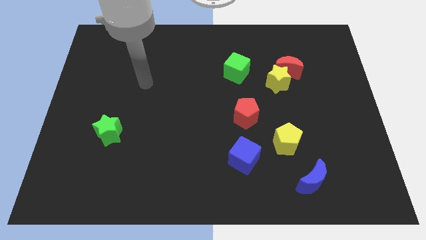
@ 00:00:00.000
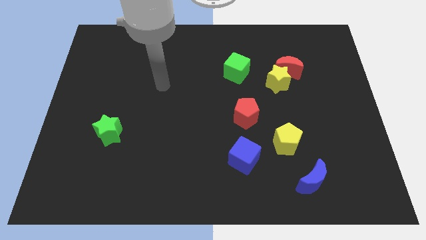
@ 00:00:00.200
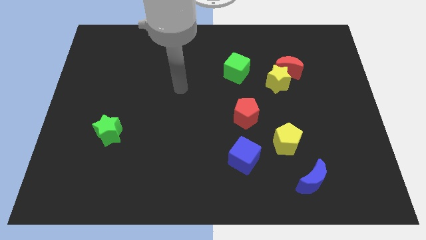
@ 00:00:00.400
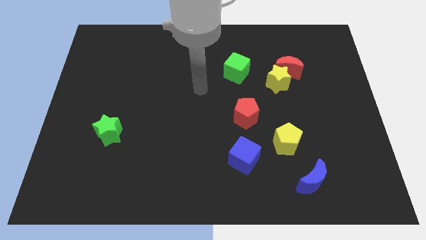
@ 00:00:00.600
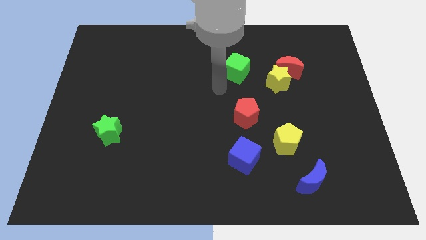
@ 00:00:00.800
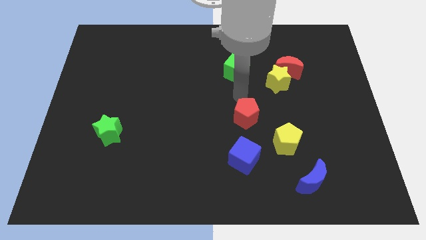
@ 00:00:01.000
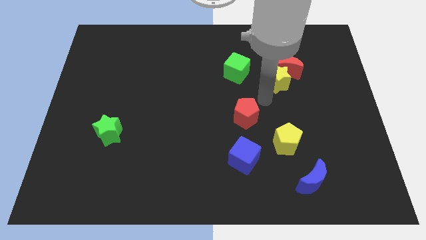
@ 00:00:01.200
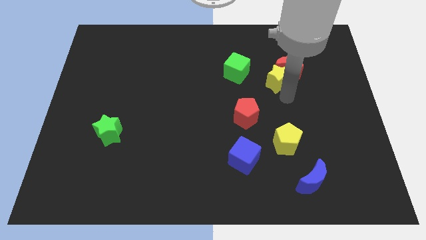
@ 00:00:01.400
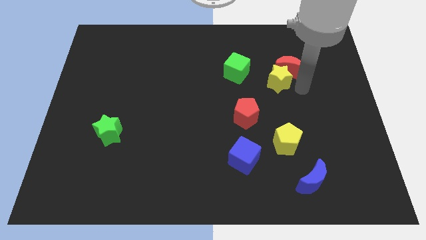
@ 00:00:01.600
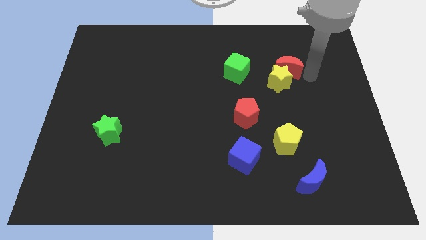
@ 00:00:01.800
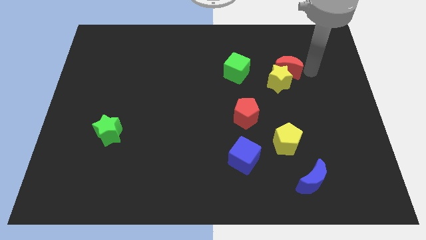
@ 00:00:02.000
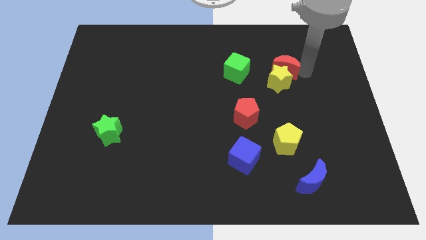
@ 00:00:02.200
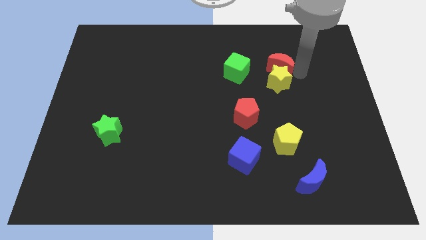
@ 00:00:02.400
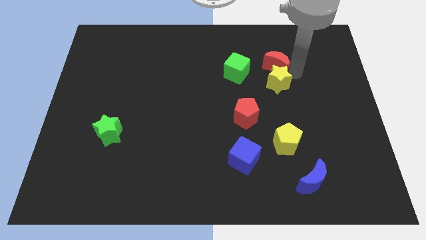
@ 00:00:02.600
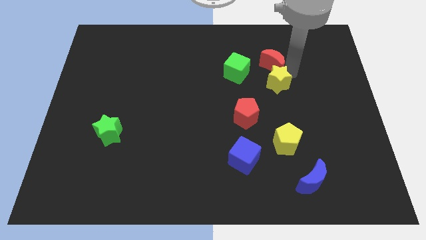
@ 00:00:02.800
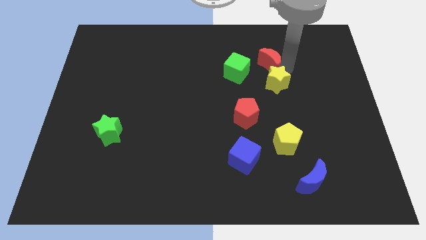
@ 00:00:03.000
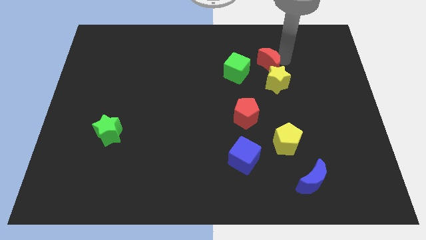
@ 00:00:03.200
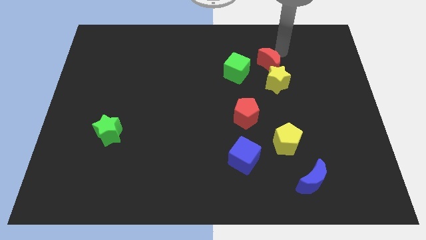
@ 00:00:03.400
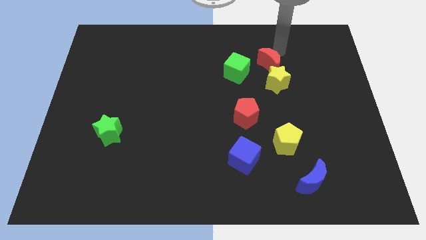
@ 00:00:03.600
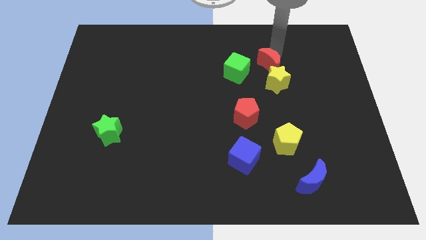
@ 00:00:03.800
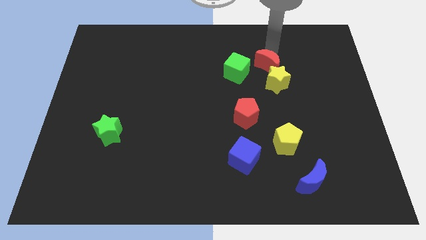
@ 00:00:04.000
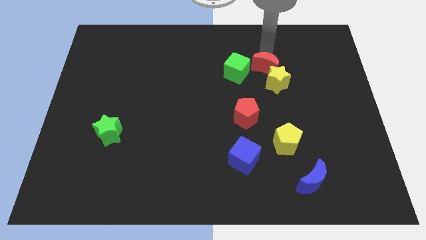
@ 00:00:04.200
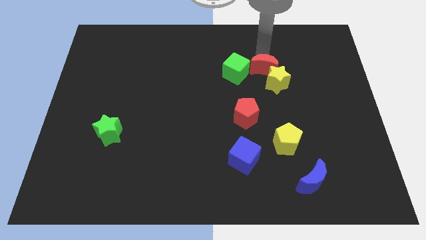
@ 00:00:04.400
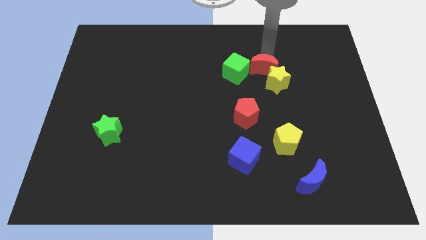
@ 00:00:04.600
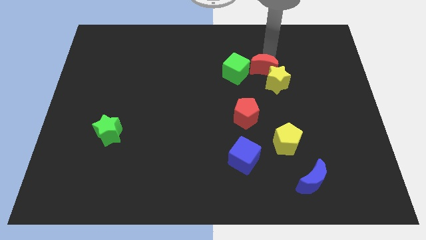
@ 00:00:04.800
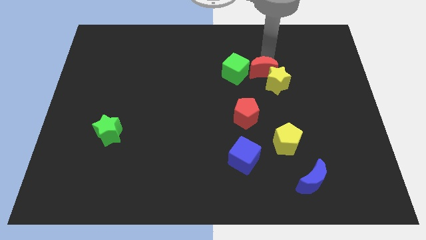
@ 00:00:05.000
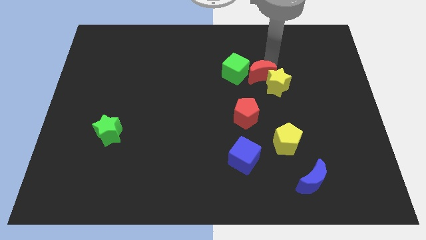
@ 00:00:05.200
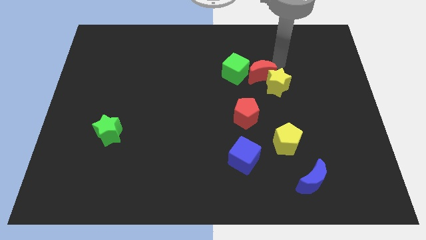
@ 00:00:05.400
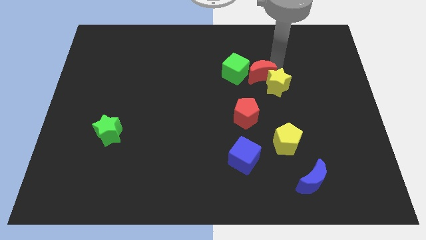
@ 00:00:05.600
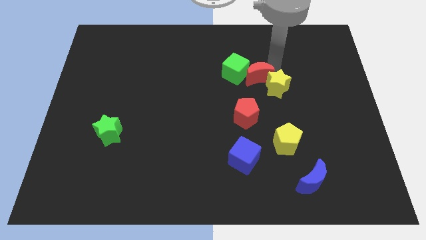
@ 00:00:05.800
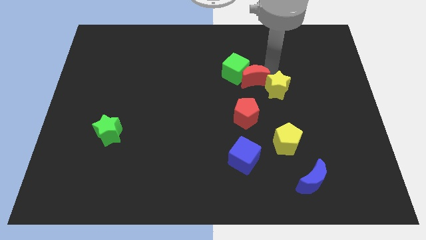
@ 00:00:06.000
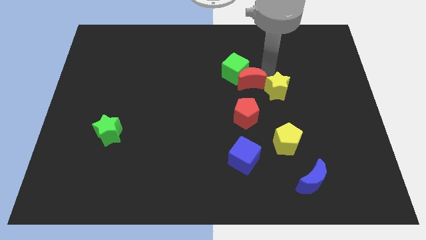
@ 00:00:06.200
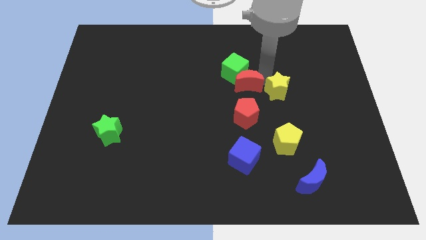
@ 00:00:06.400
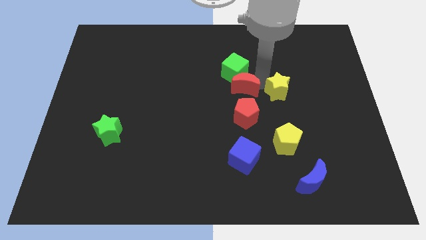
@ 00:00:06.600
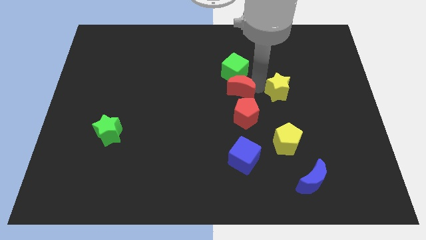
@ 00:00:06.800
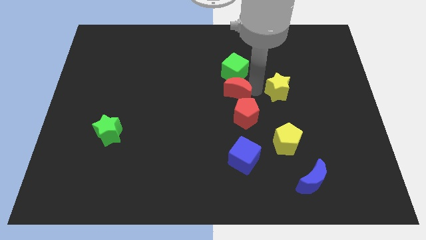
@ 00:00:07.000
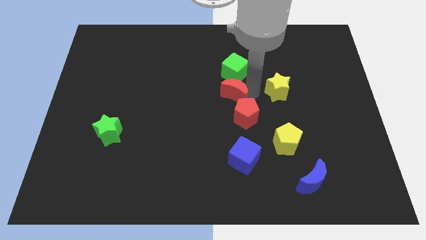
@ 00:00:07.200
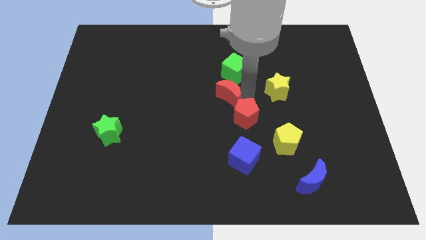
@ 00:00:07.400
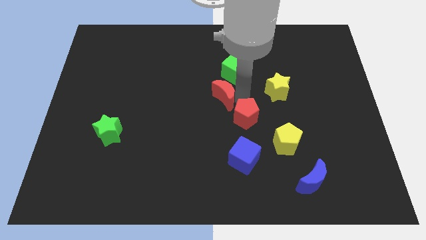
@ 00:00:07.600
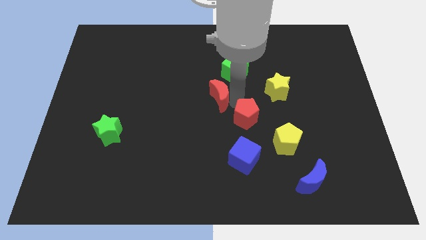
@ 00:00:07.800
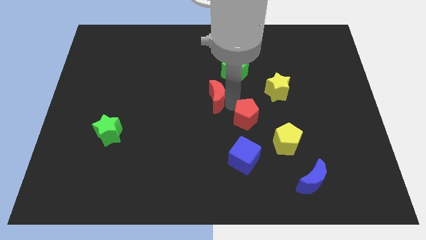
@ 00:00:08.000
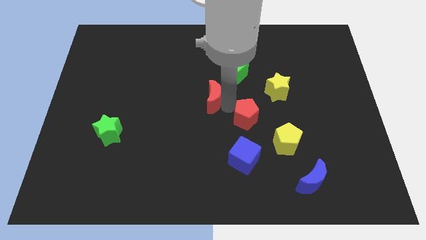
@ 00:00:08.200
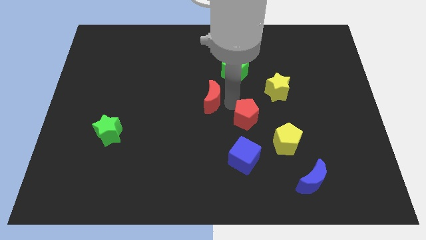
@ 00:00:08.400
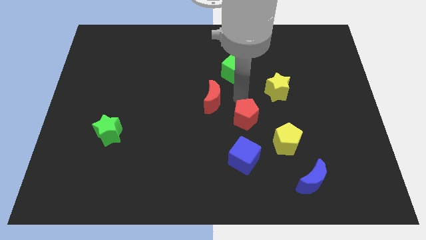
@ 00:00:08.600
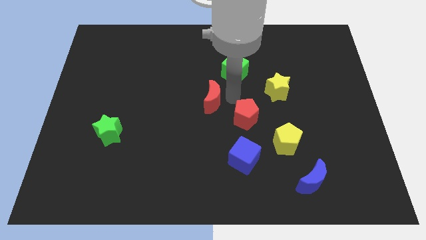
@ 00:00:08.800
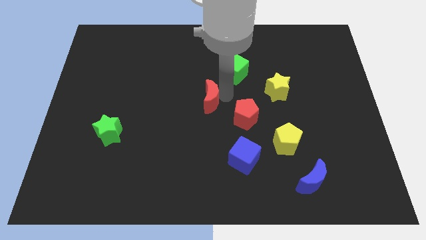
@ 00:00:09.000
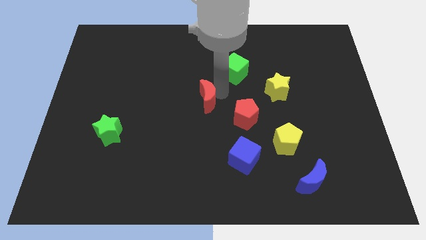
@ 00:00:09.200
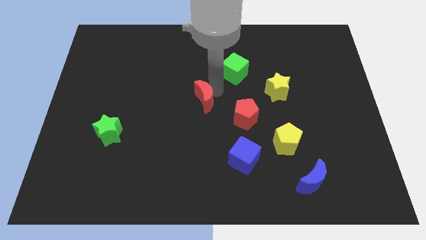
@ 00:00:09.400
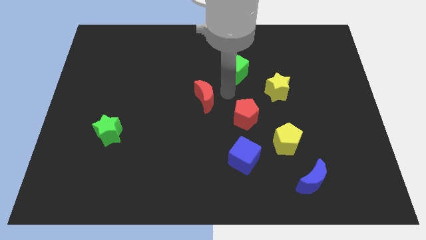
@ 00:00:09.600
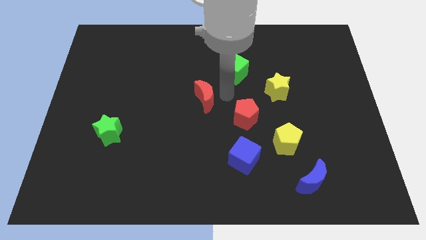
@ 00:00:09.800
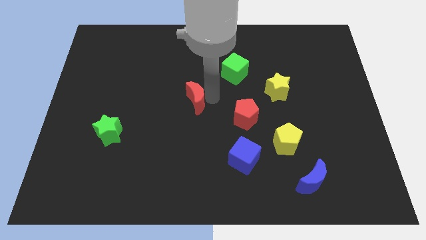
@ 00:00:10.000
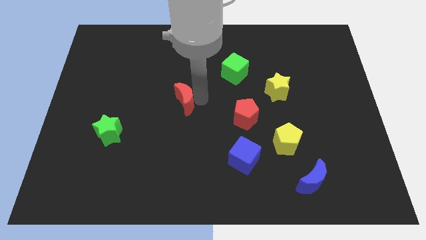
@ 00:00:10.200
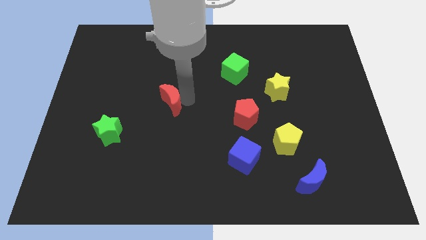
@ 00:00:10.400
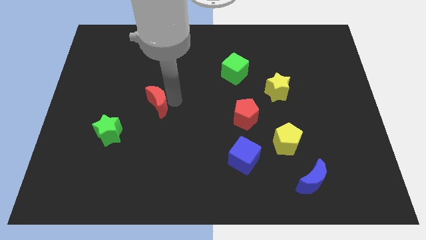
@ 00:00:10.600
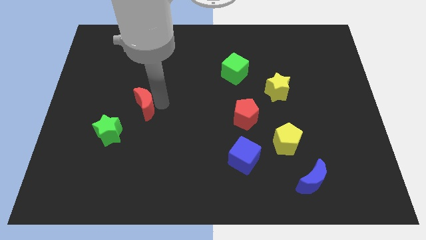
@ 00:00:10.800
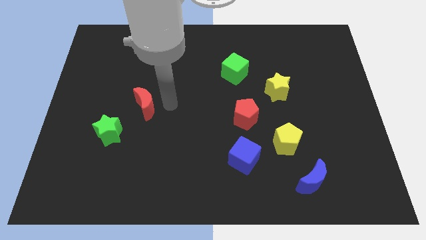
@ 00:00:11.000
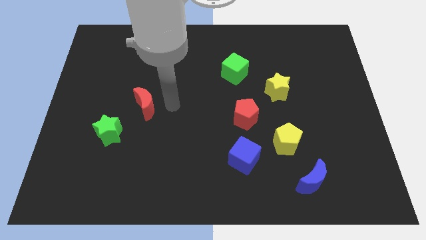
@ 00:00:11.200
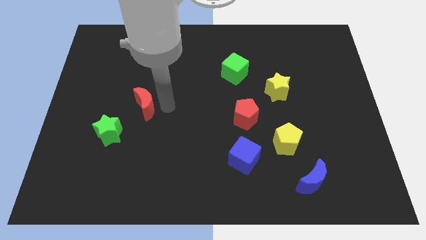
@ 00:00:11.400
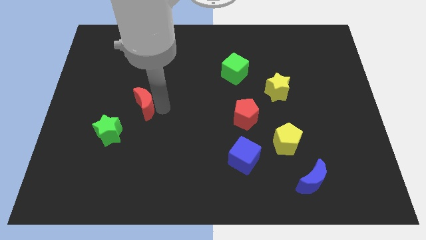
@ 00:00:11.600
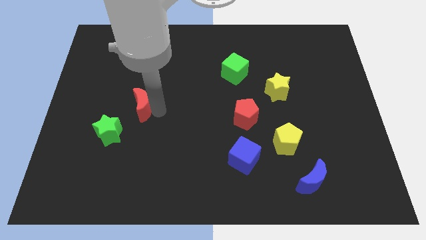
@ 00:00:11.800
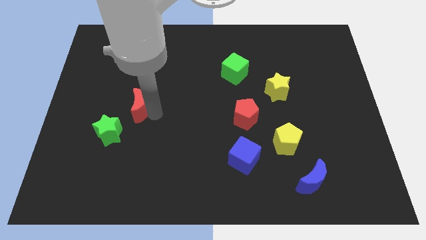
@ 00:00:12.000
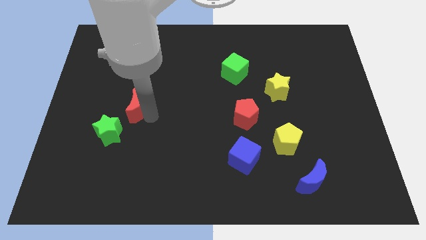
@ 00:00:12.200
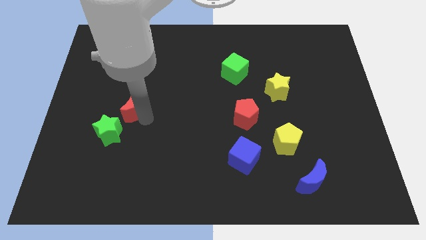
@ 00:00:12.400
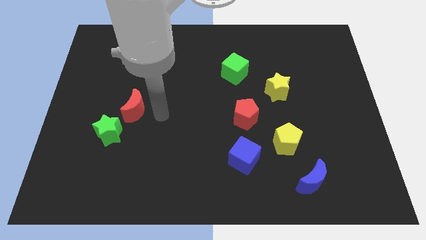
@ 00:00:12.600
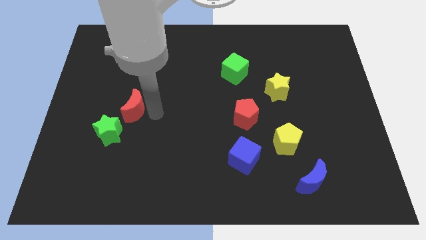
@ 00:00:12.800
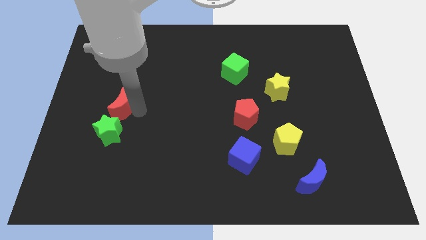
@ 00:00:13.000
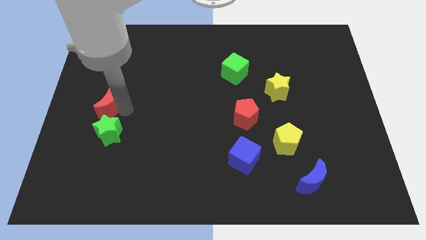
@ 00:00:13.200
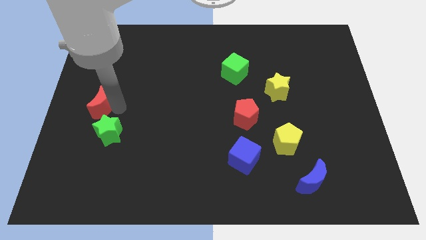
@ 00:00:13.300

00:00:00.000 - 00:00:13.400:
put the red moon to the left side
